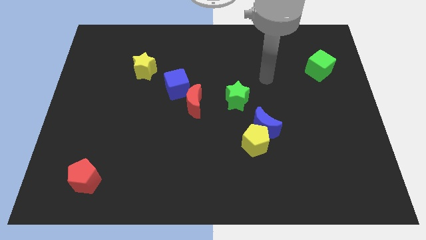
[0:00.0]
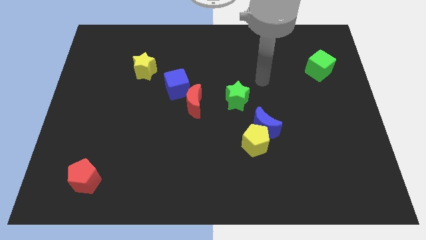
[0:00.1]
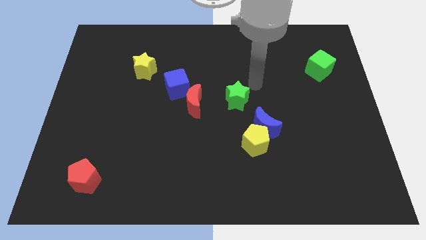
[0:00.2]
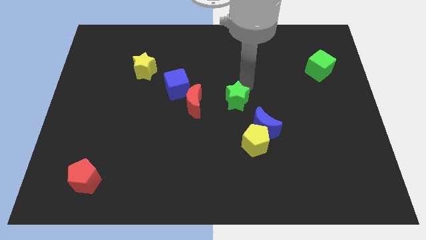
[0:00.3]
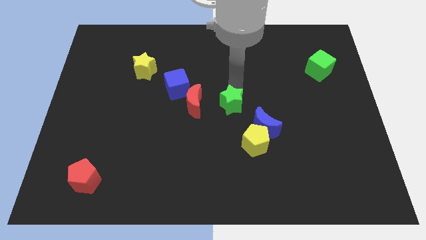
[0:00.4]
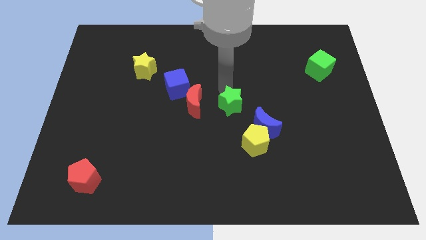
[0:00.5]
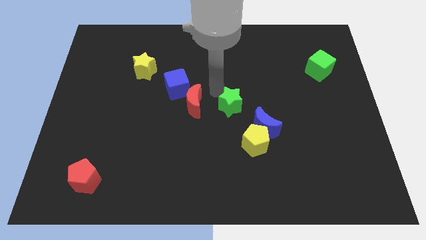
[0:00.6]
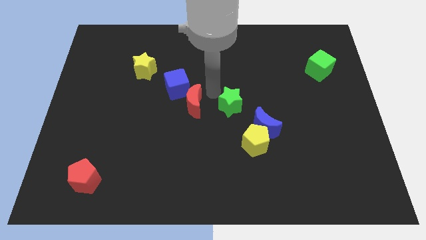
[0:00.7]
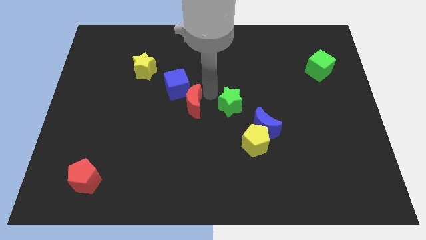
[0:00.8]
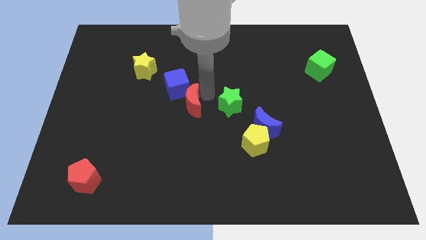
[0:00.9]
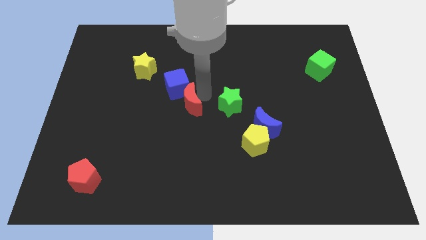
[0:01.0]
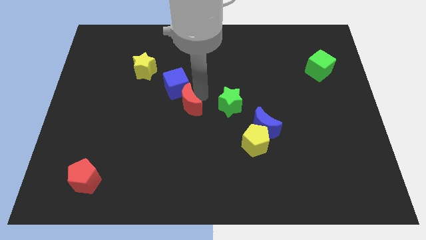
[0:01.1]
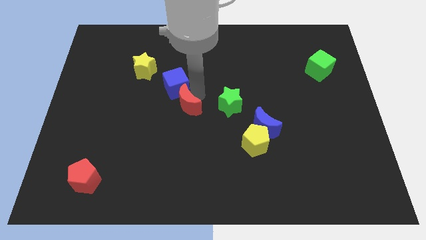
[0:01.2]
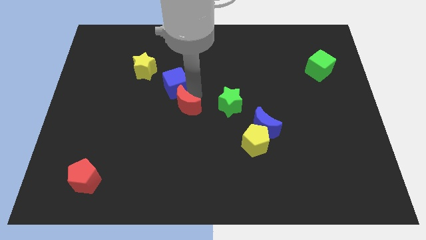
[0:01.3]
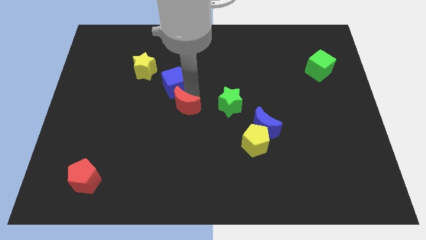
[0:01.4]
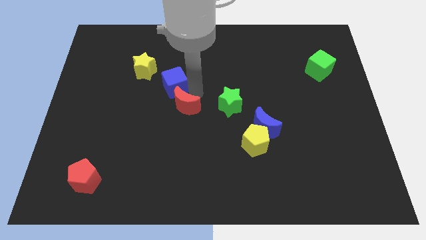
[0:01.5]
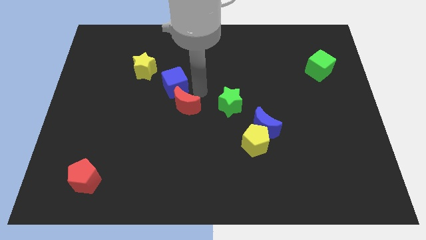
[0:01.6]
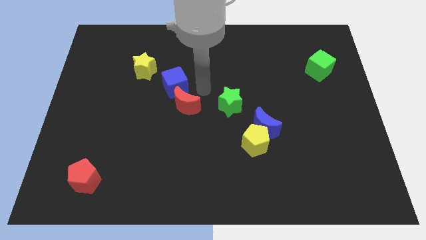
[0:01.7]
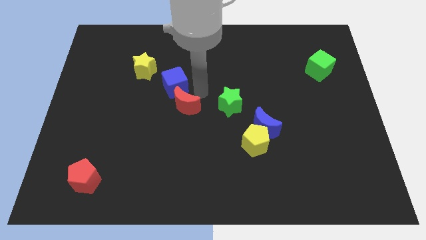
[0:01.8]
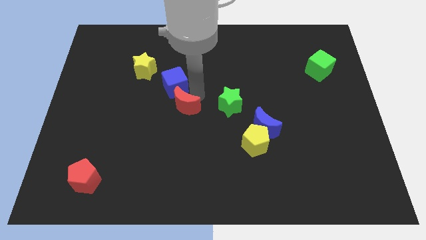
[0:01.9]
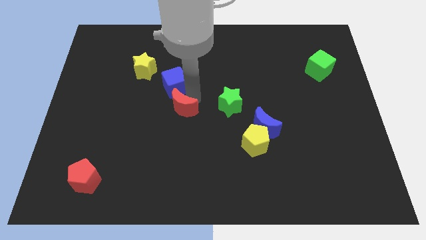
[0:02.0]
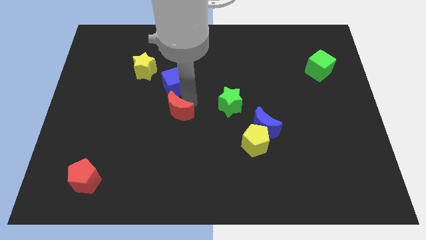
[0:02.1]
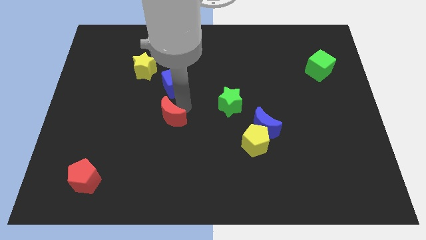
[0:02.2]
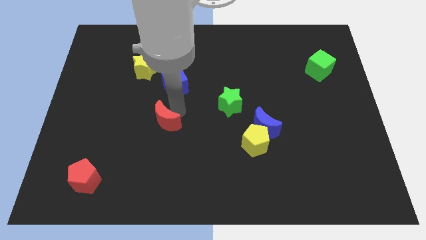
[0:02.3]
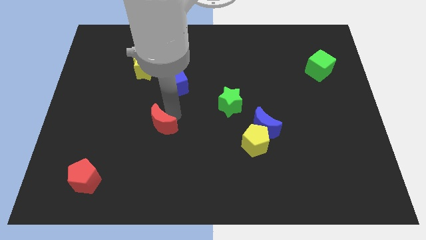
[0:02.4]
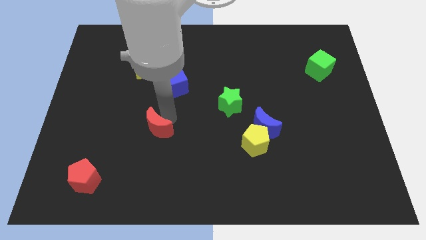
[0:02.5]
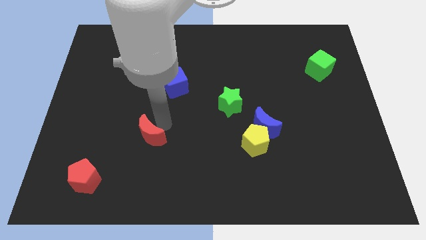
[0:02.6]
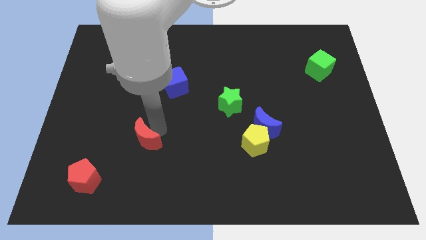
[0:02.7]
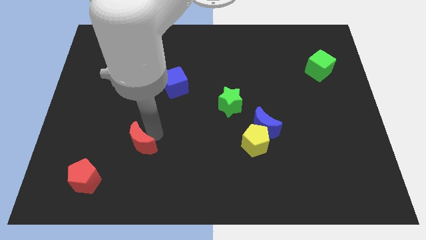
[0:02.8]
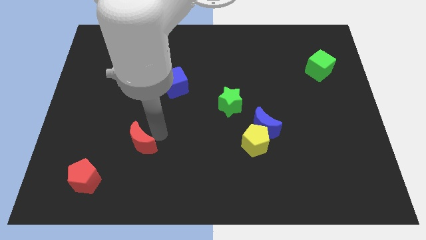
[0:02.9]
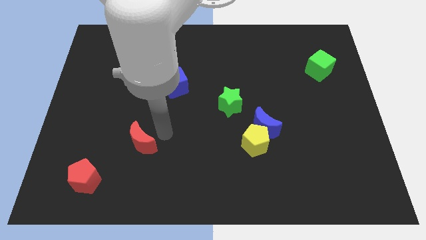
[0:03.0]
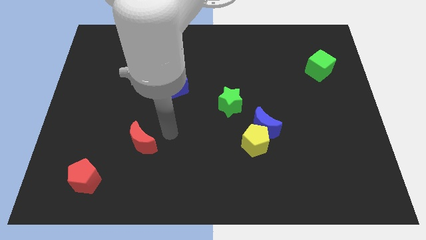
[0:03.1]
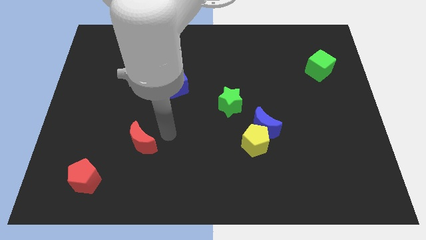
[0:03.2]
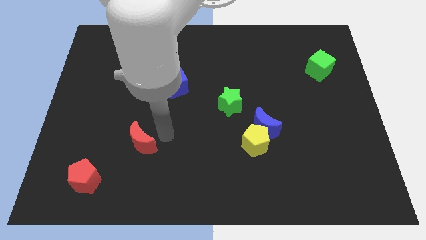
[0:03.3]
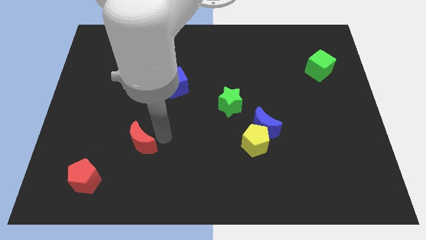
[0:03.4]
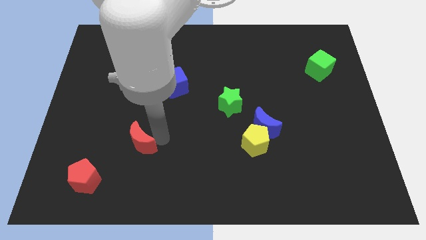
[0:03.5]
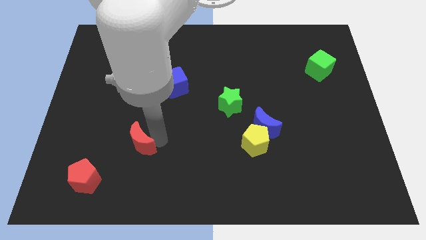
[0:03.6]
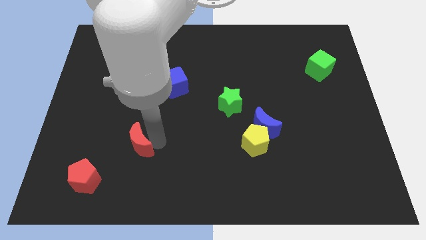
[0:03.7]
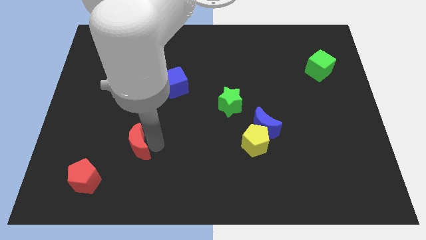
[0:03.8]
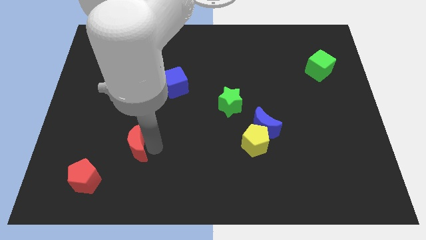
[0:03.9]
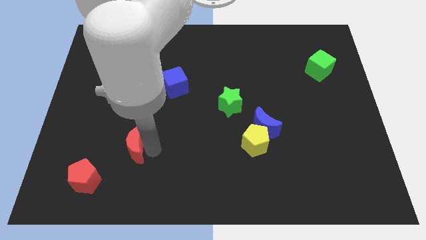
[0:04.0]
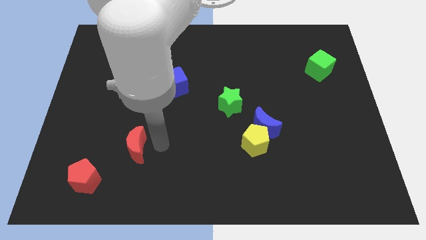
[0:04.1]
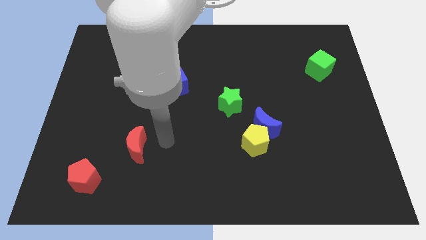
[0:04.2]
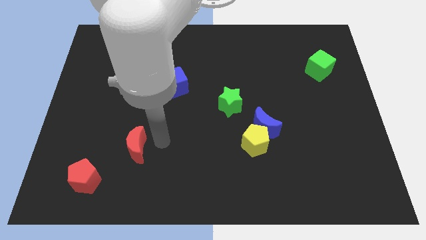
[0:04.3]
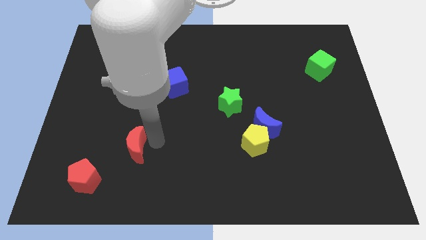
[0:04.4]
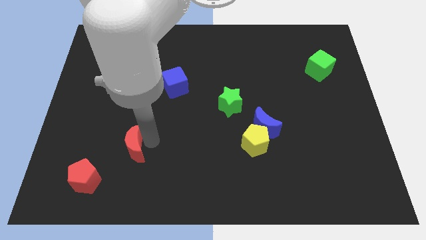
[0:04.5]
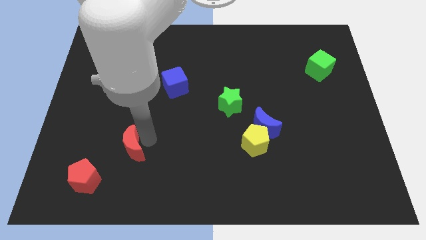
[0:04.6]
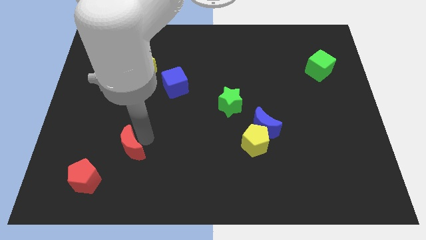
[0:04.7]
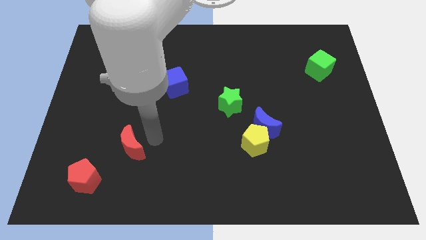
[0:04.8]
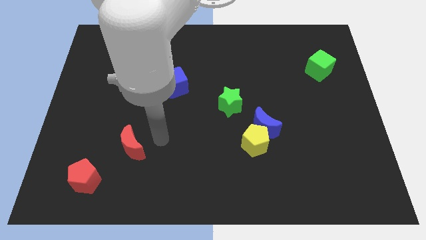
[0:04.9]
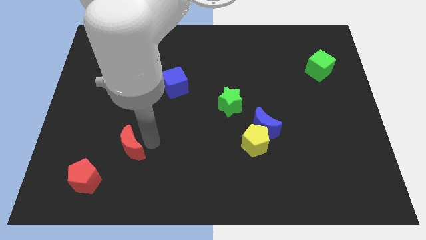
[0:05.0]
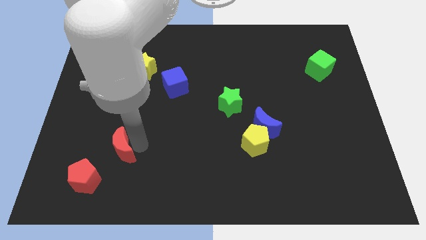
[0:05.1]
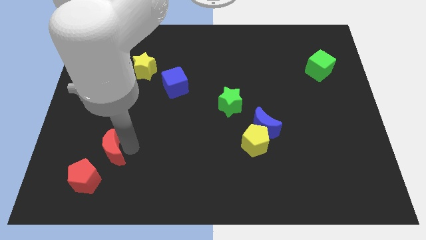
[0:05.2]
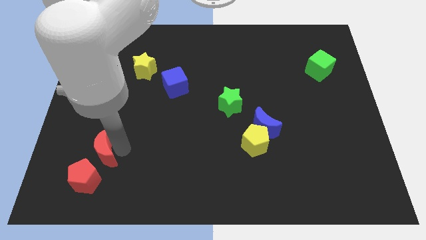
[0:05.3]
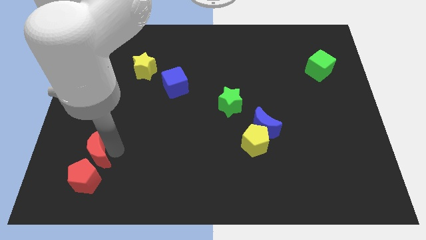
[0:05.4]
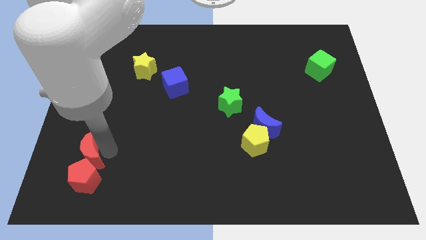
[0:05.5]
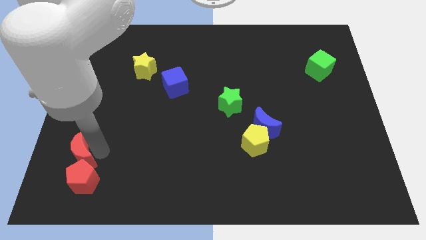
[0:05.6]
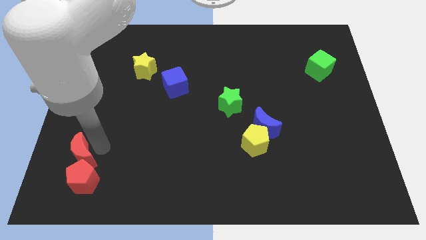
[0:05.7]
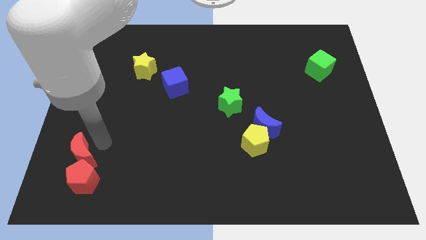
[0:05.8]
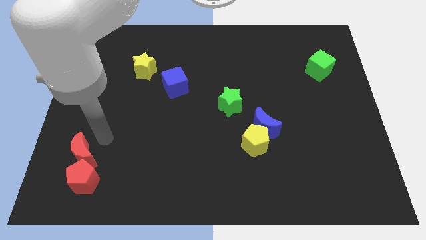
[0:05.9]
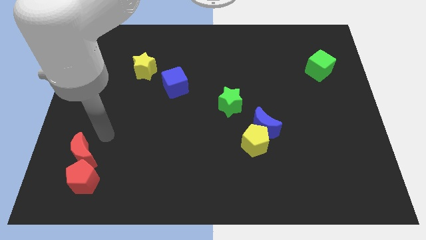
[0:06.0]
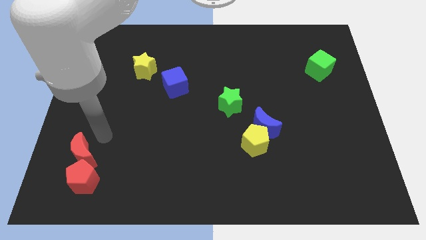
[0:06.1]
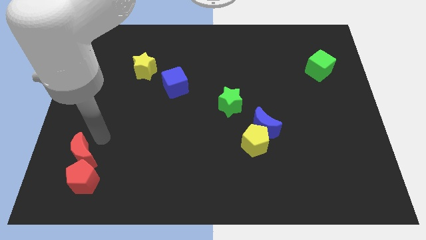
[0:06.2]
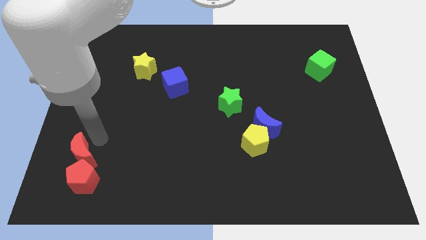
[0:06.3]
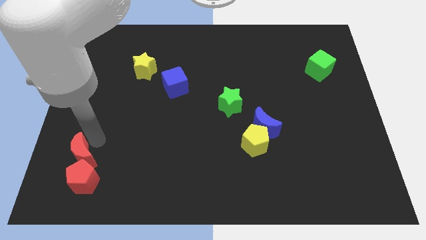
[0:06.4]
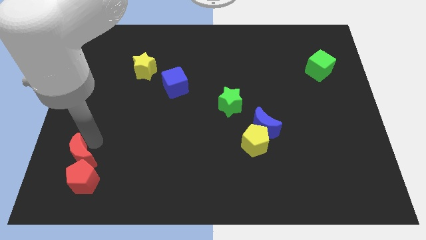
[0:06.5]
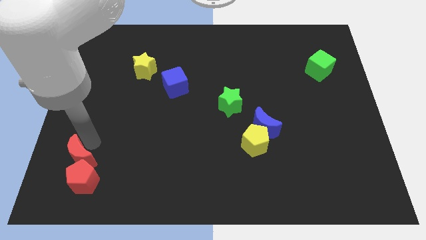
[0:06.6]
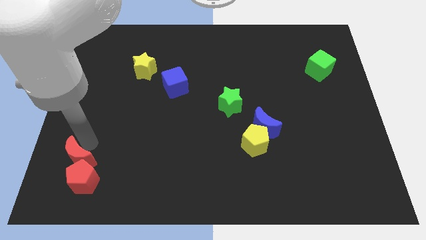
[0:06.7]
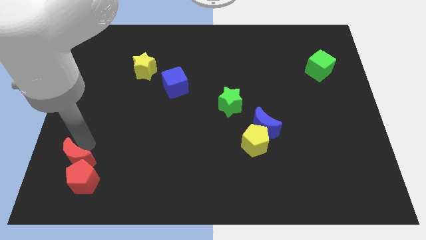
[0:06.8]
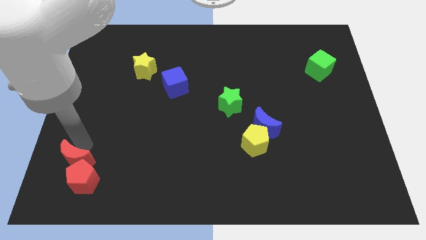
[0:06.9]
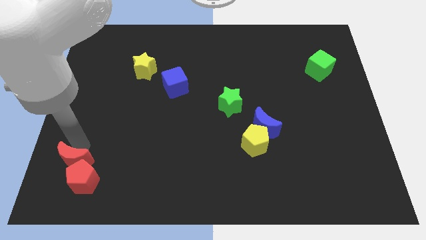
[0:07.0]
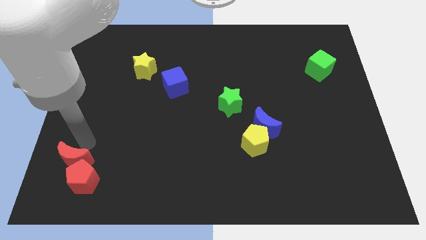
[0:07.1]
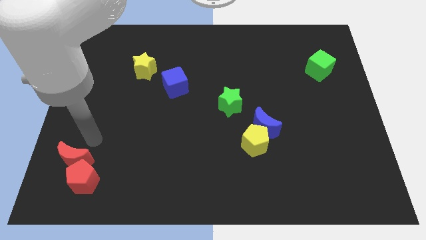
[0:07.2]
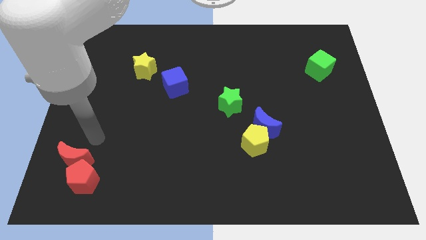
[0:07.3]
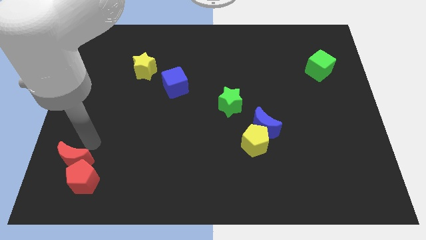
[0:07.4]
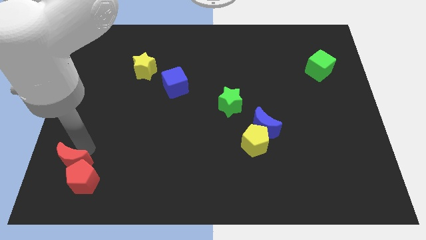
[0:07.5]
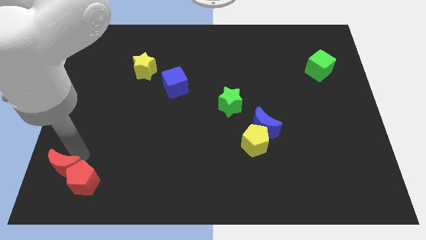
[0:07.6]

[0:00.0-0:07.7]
slide the red moon to the lower left corner
